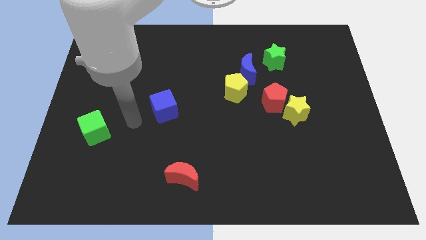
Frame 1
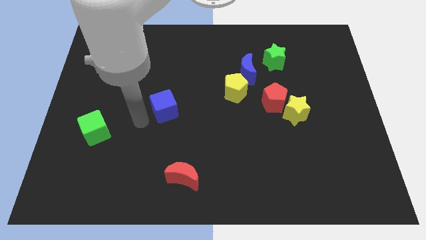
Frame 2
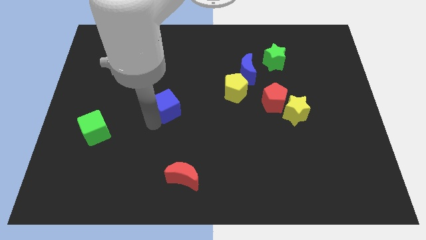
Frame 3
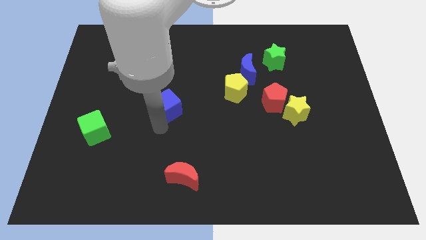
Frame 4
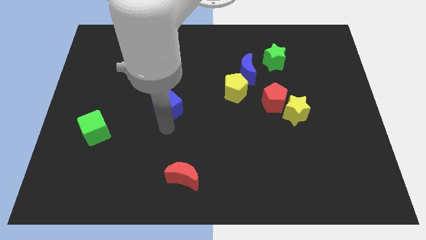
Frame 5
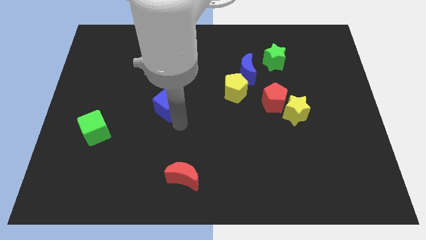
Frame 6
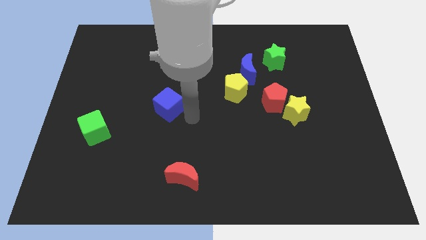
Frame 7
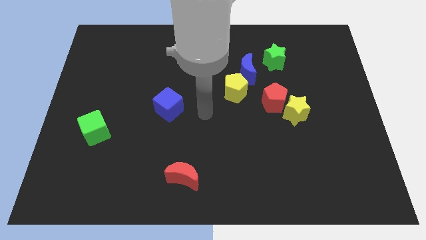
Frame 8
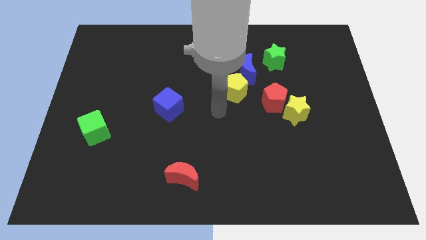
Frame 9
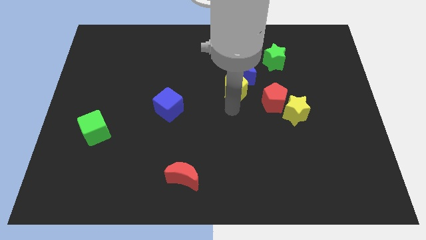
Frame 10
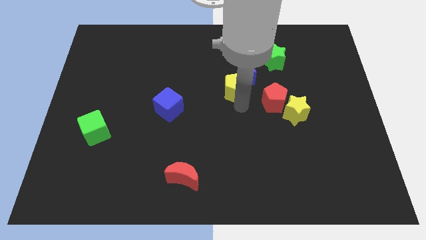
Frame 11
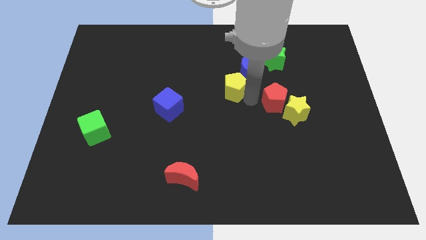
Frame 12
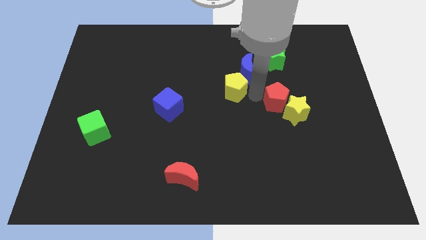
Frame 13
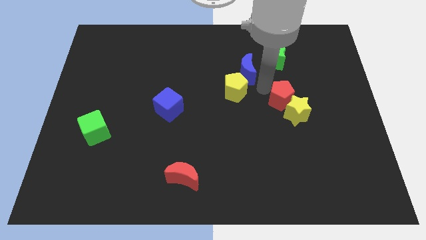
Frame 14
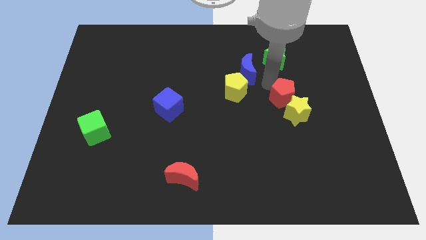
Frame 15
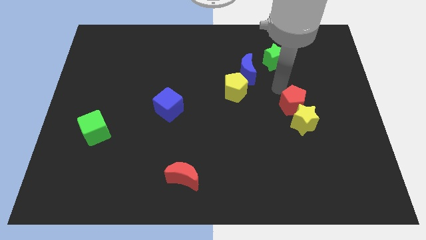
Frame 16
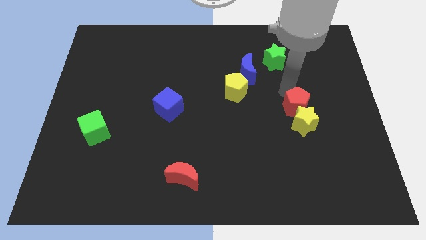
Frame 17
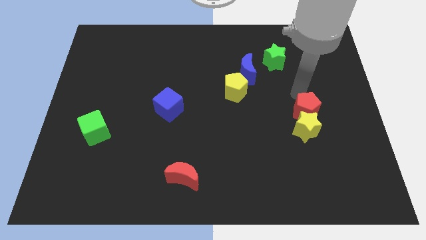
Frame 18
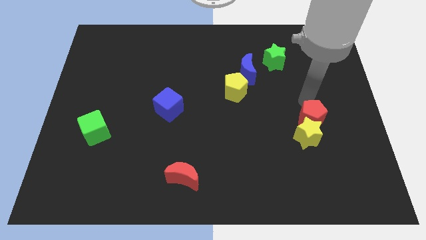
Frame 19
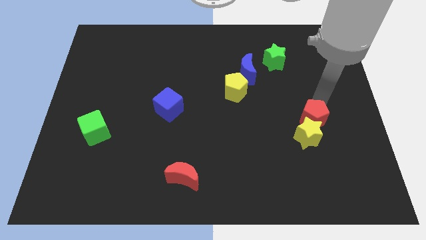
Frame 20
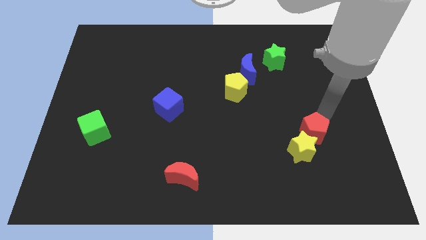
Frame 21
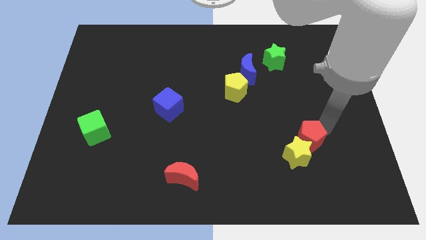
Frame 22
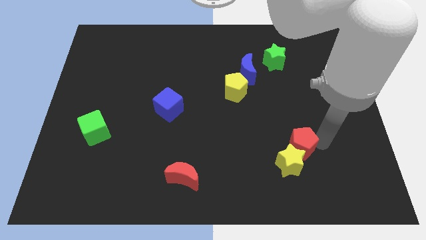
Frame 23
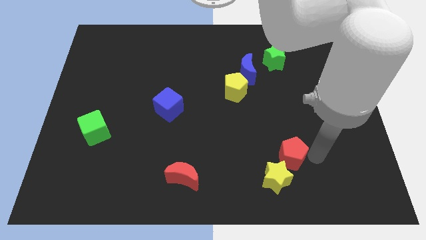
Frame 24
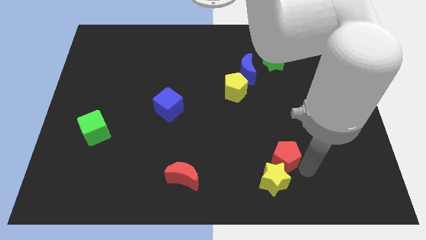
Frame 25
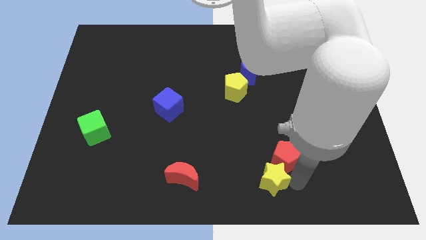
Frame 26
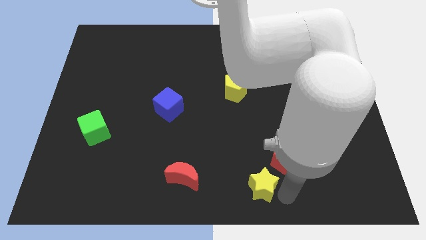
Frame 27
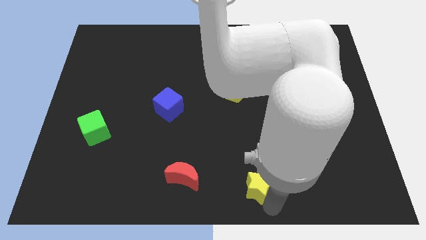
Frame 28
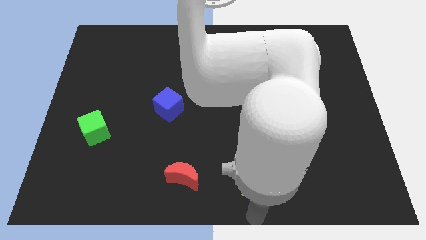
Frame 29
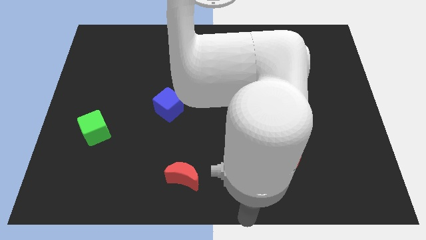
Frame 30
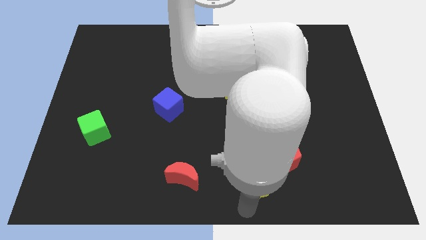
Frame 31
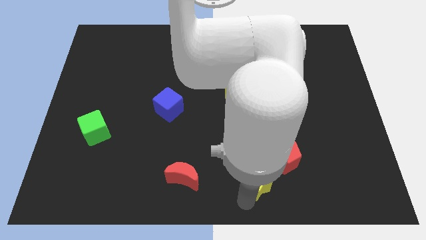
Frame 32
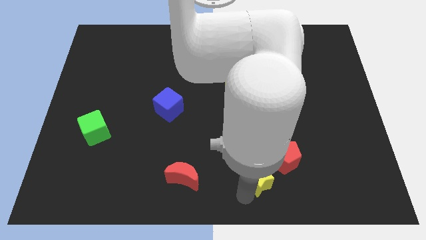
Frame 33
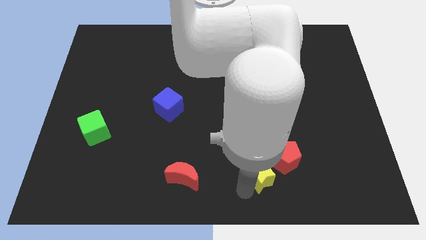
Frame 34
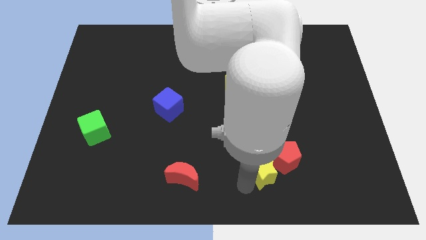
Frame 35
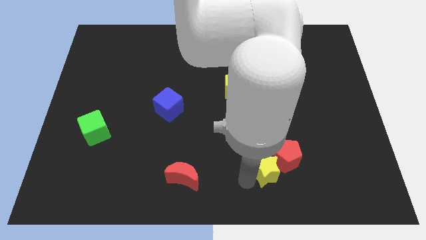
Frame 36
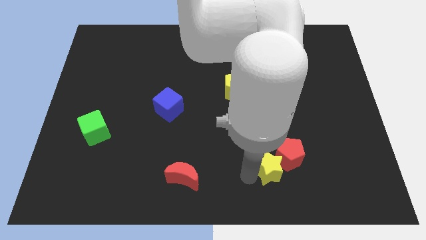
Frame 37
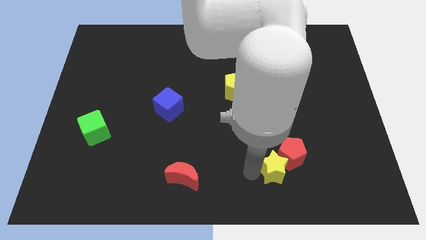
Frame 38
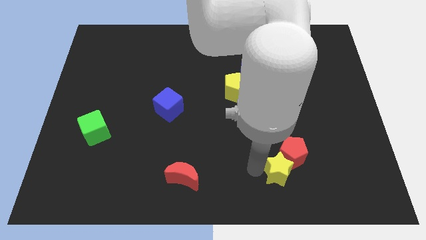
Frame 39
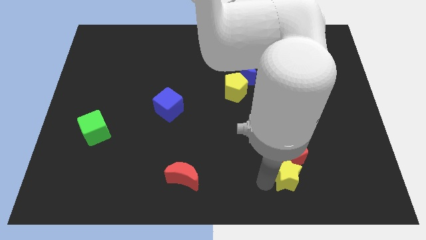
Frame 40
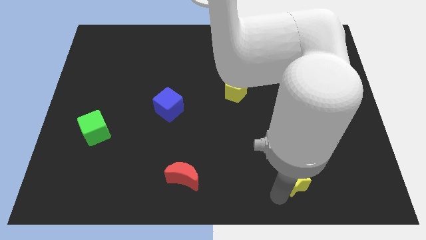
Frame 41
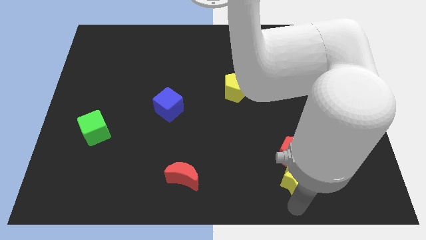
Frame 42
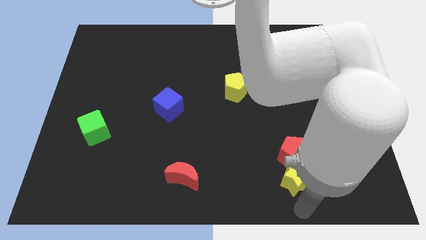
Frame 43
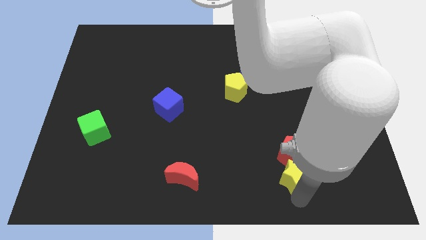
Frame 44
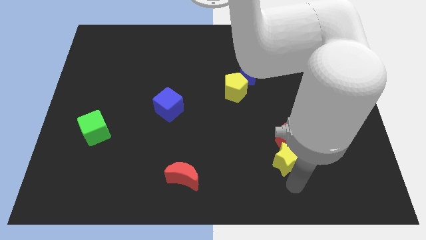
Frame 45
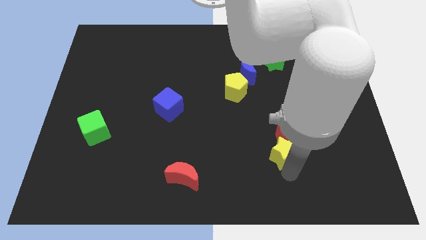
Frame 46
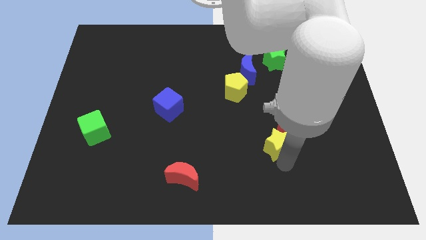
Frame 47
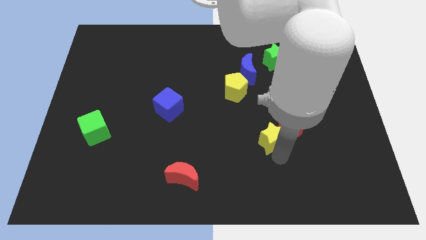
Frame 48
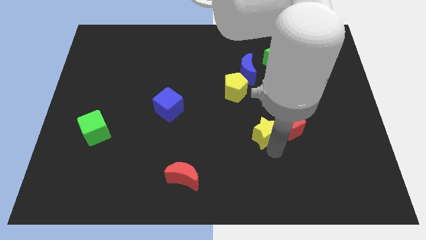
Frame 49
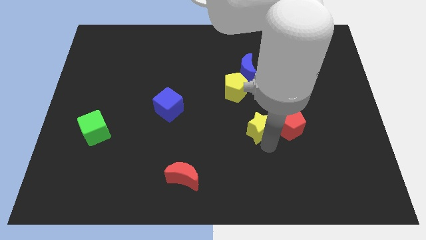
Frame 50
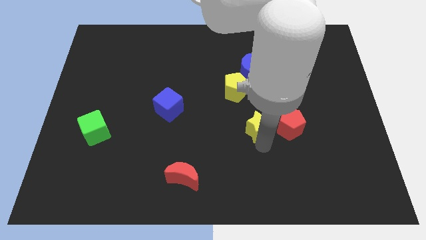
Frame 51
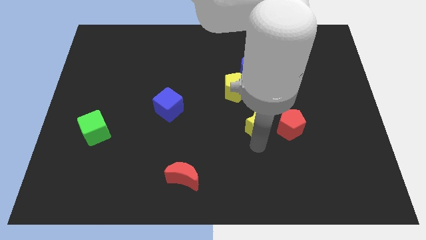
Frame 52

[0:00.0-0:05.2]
push the yellow star to the center of the board

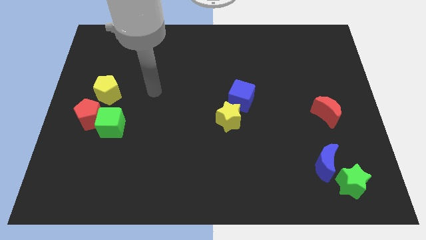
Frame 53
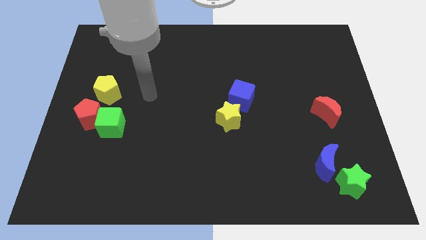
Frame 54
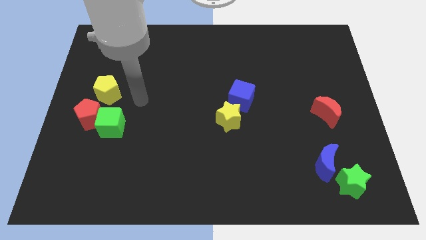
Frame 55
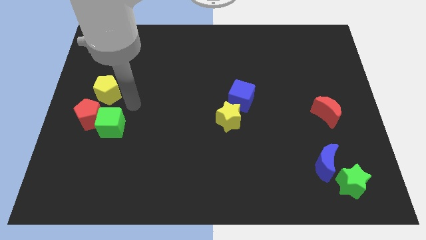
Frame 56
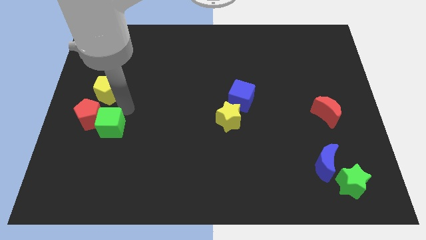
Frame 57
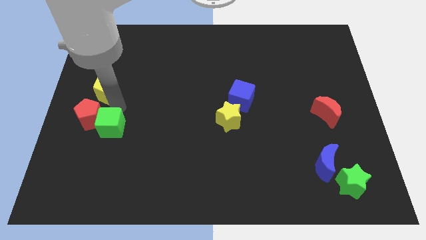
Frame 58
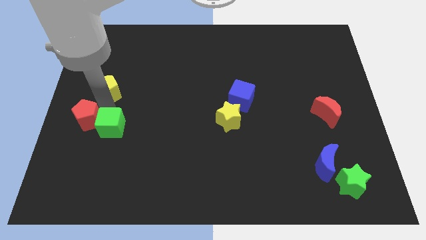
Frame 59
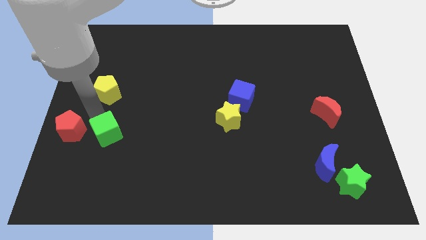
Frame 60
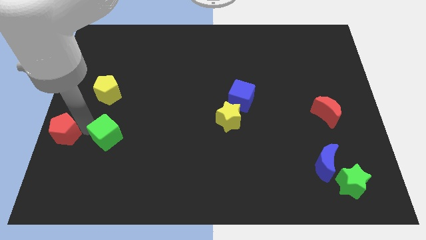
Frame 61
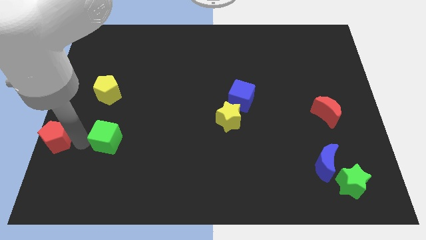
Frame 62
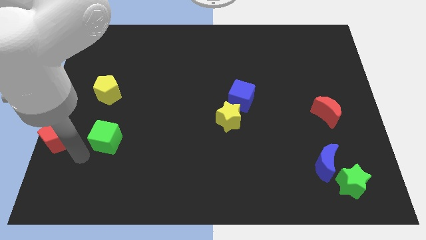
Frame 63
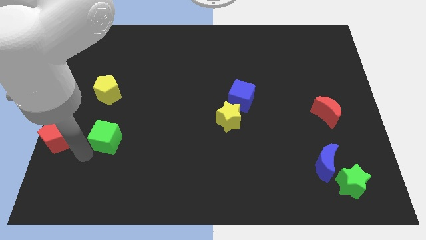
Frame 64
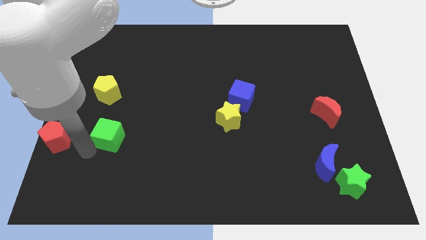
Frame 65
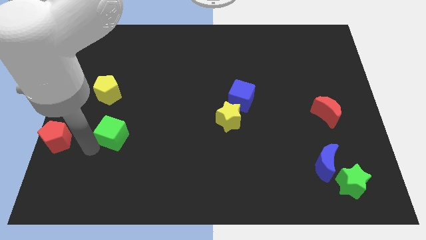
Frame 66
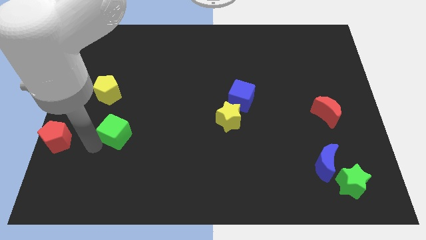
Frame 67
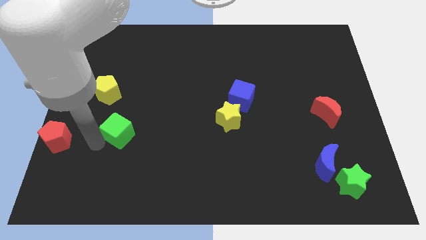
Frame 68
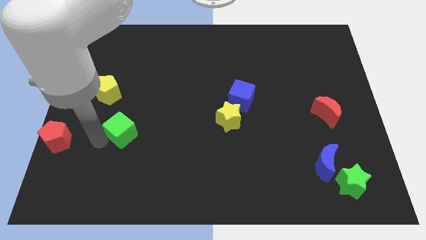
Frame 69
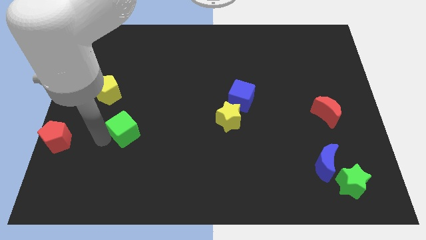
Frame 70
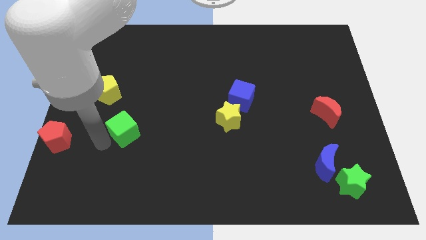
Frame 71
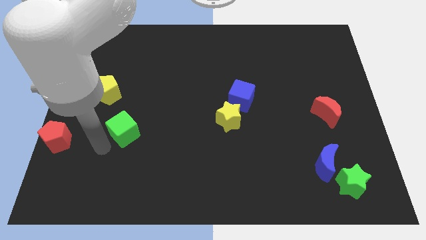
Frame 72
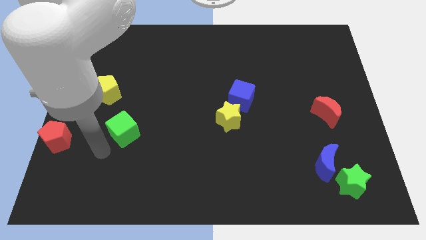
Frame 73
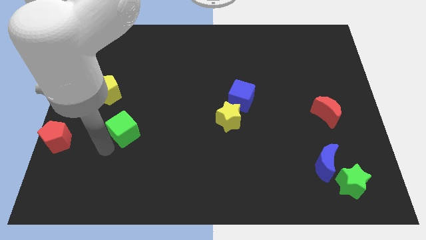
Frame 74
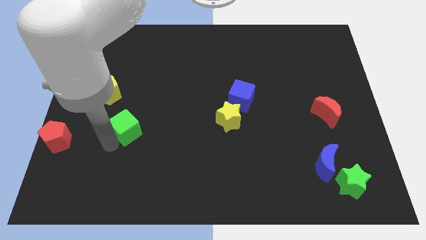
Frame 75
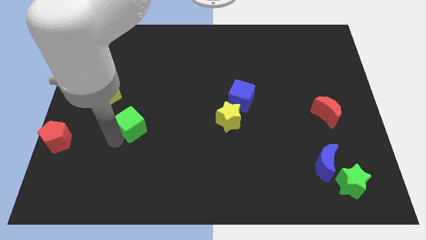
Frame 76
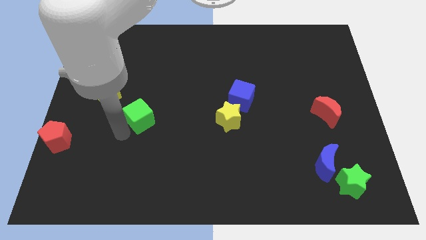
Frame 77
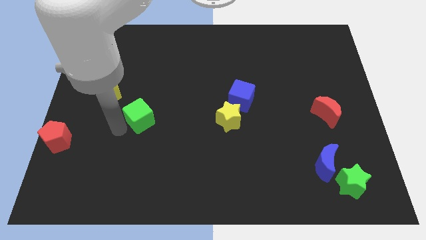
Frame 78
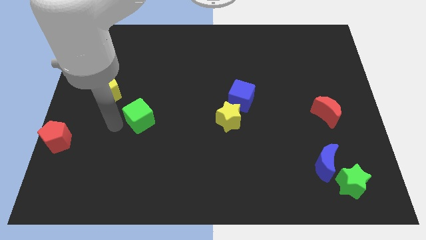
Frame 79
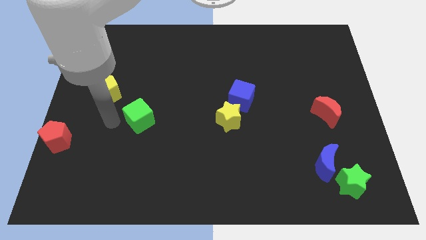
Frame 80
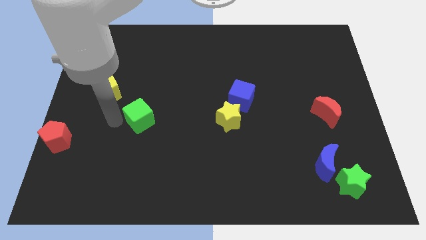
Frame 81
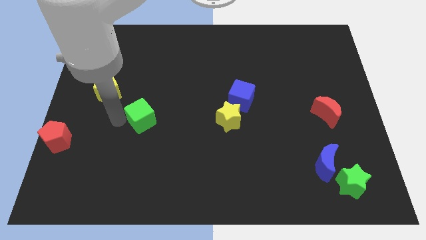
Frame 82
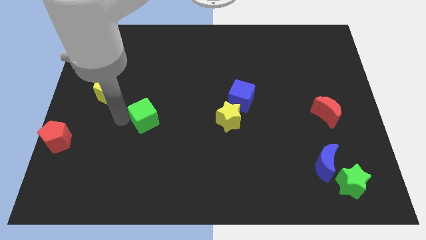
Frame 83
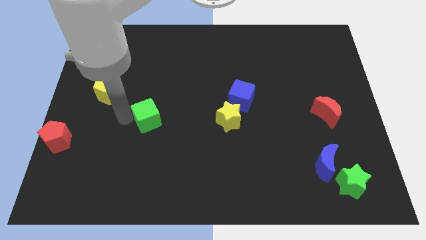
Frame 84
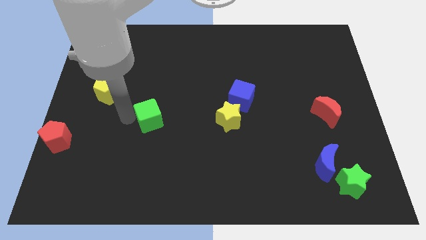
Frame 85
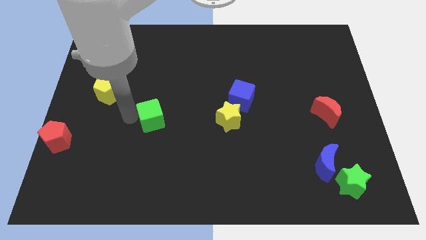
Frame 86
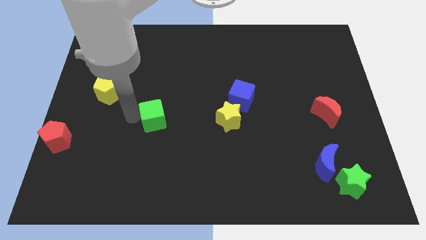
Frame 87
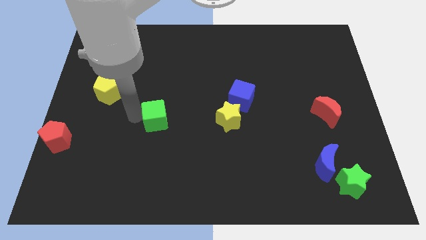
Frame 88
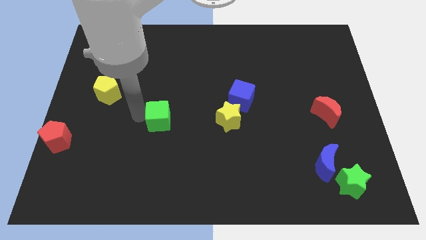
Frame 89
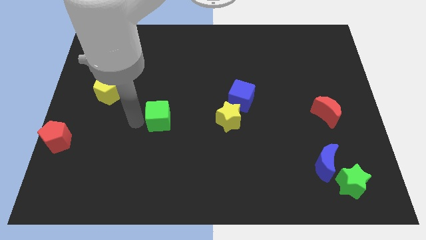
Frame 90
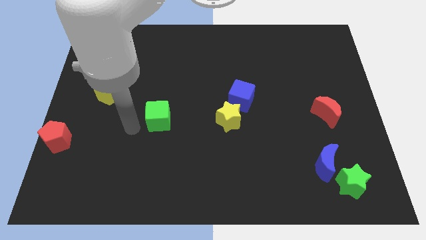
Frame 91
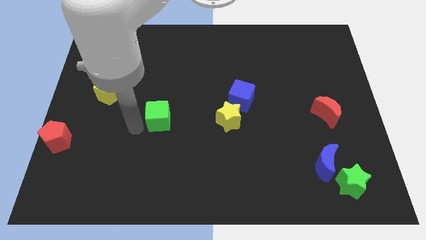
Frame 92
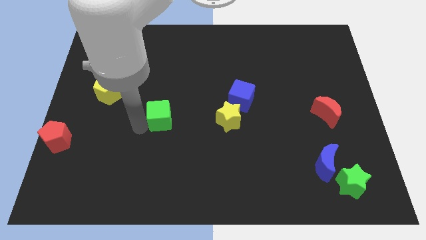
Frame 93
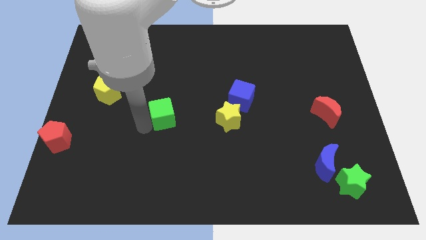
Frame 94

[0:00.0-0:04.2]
slide the green cube to the middle of the board
